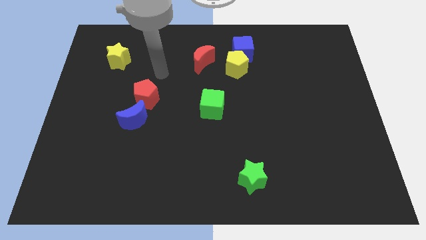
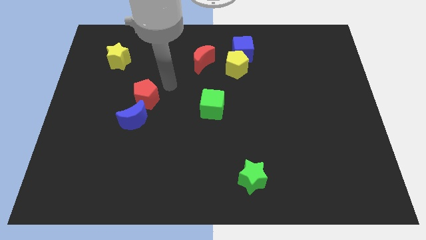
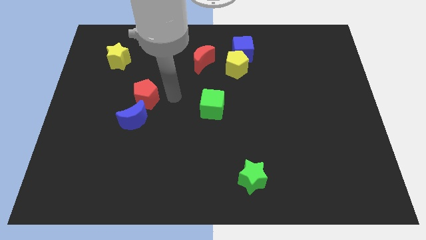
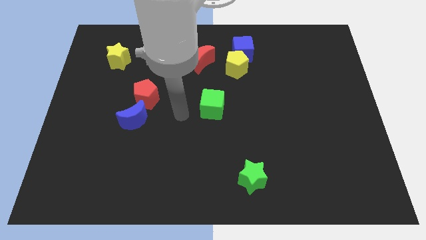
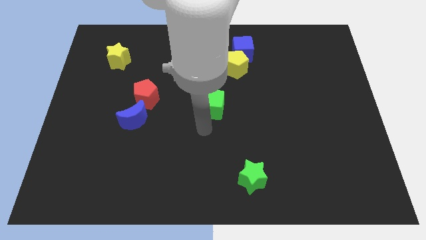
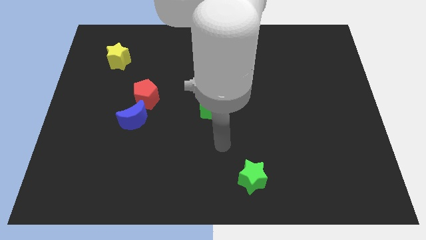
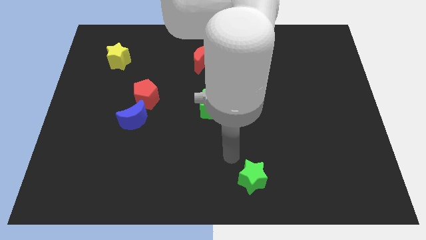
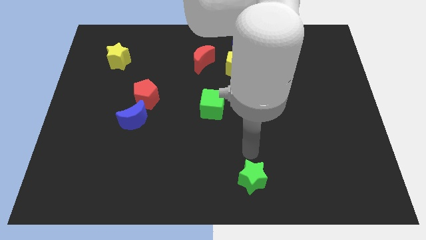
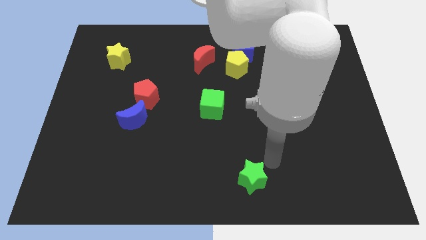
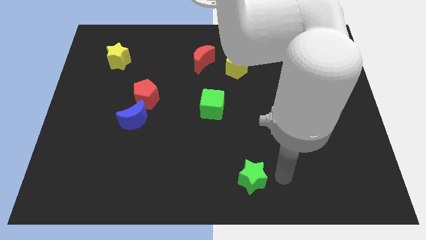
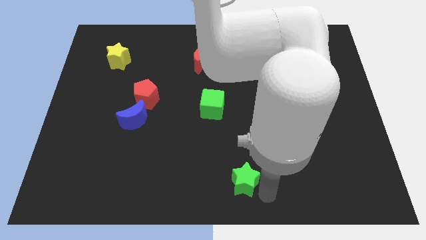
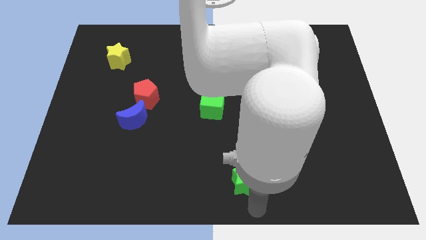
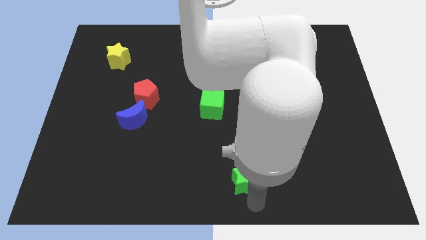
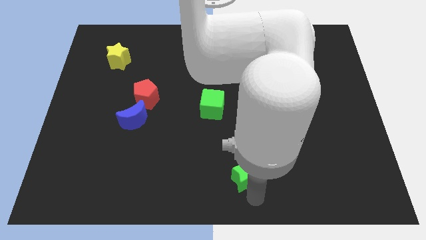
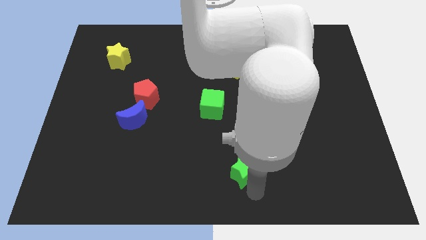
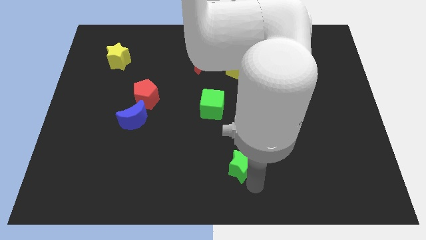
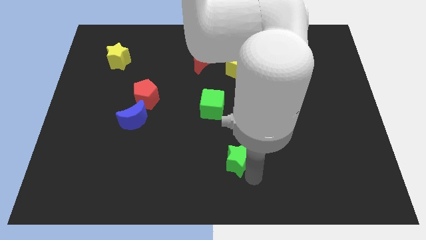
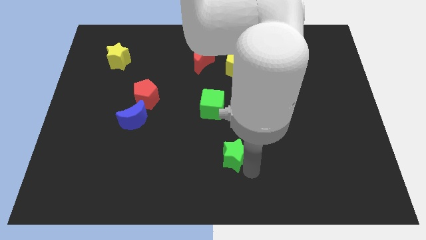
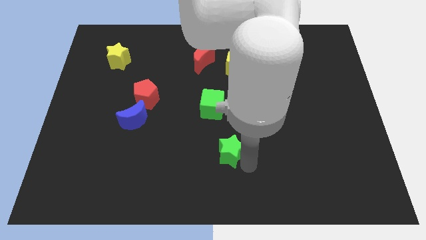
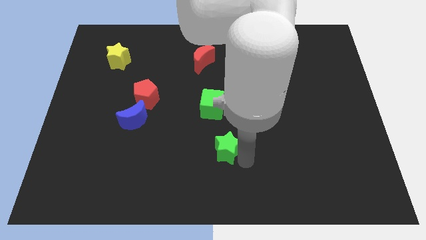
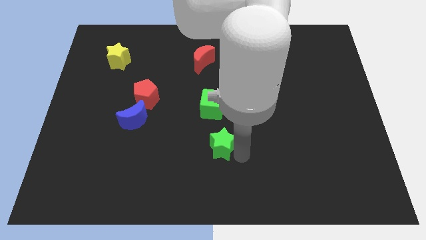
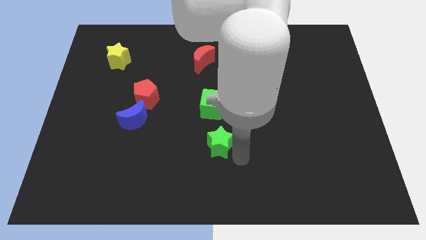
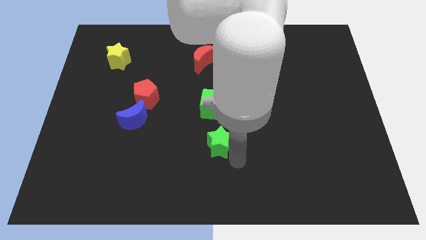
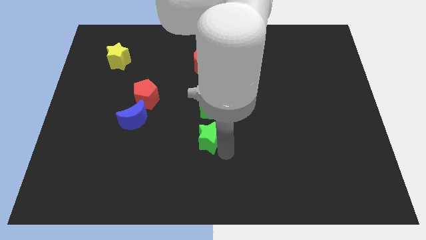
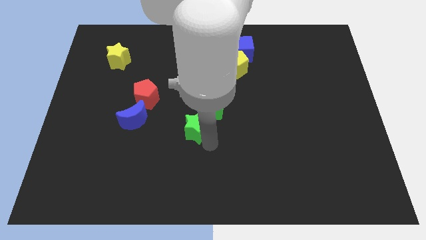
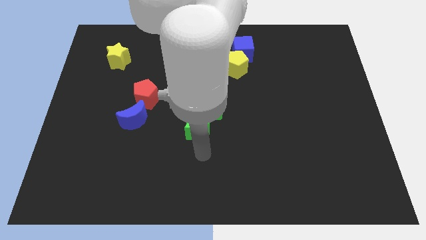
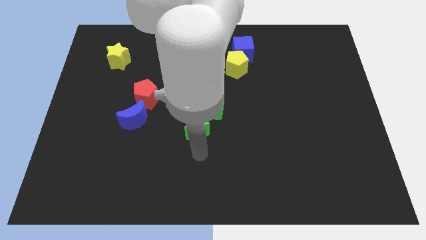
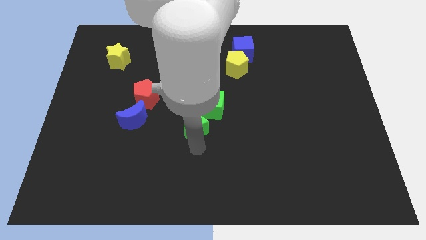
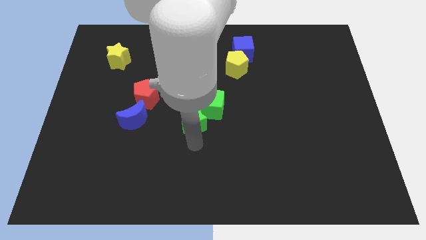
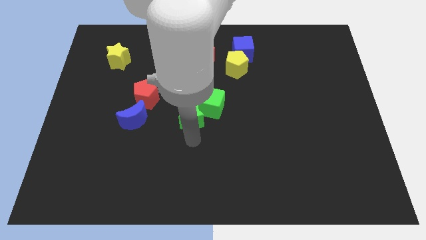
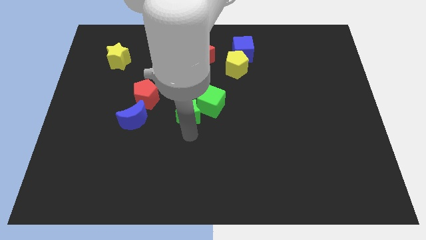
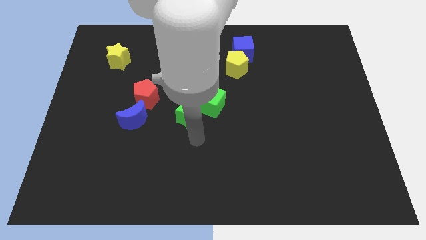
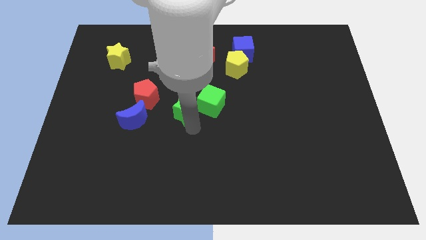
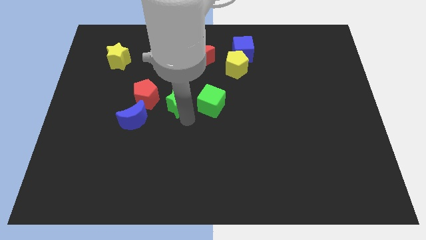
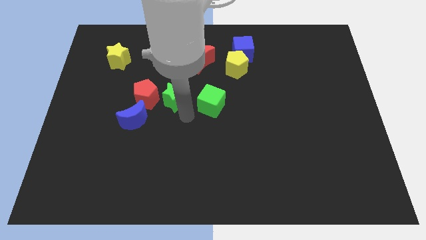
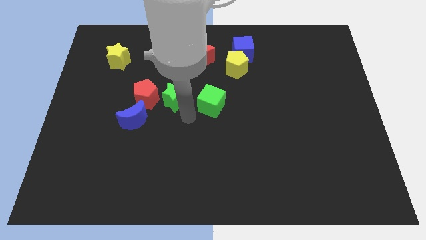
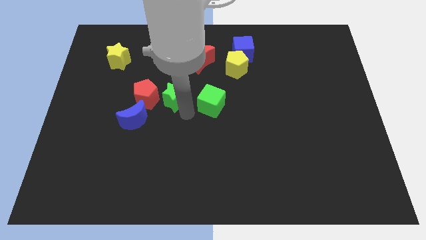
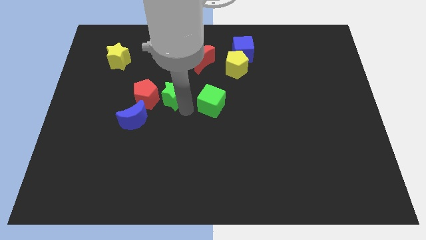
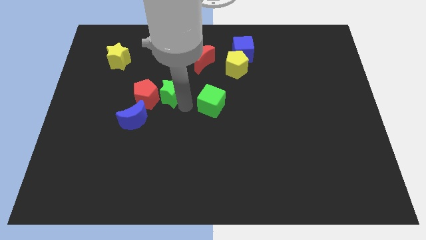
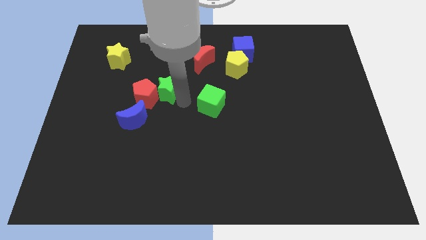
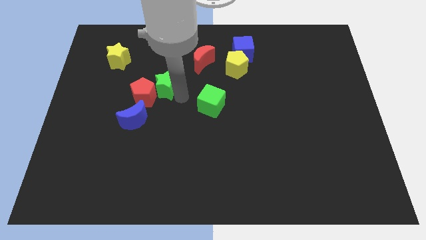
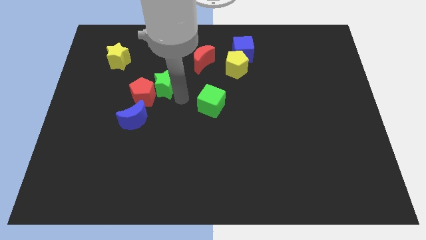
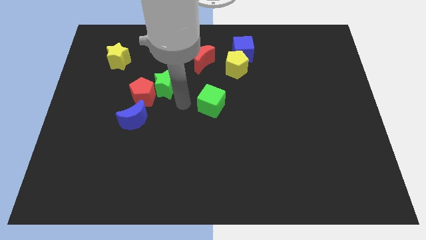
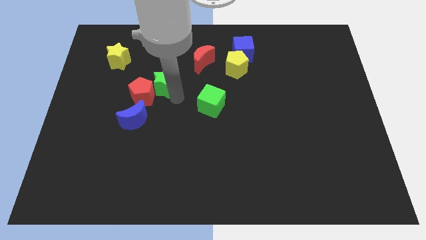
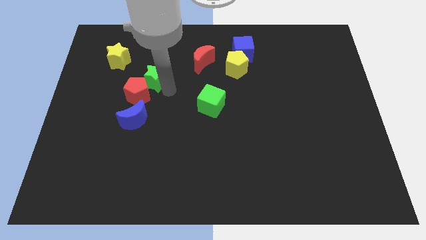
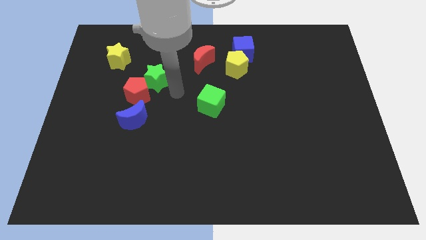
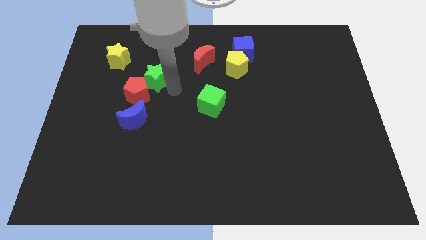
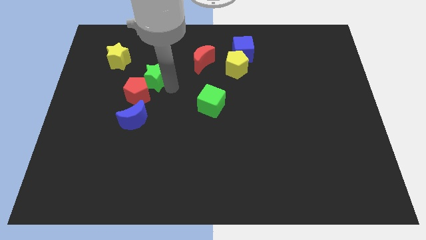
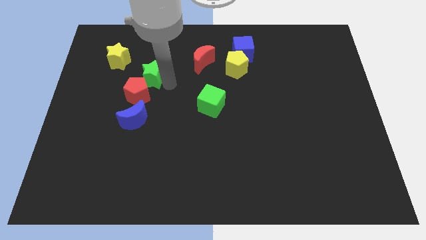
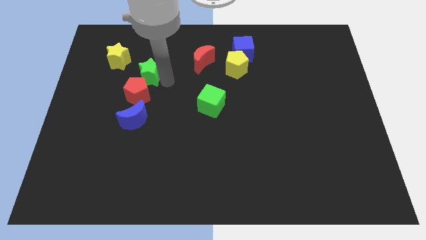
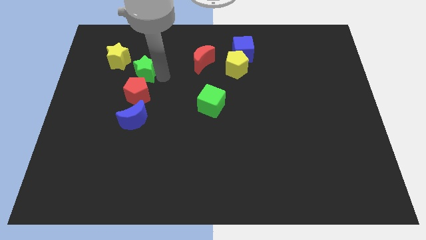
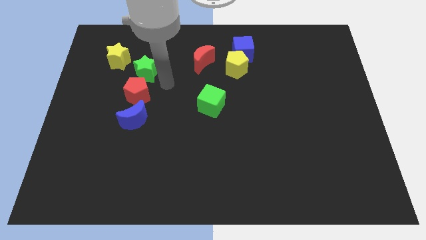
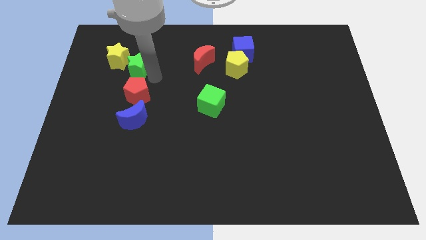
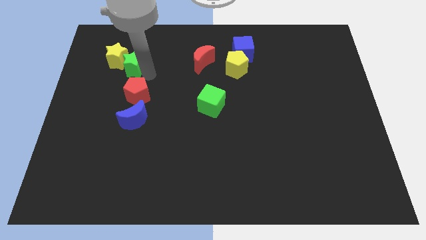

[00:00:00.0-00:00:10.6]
move the green star next to the yellow star

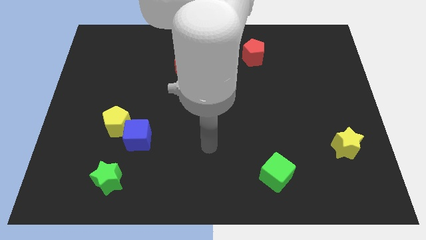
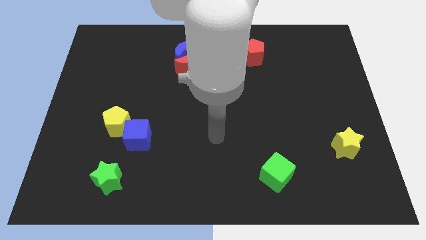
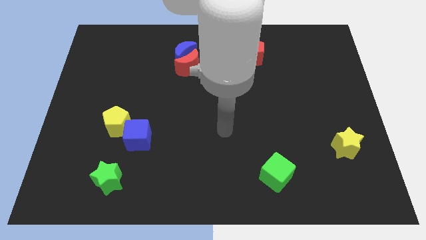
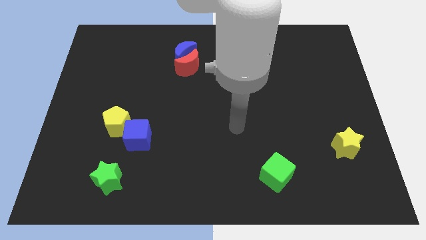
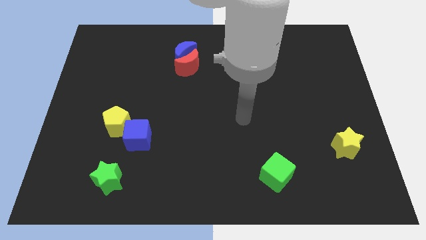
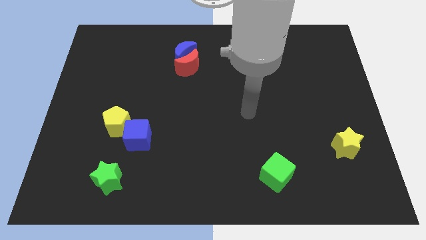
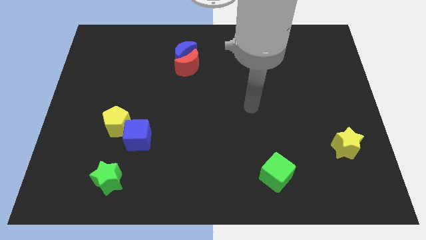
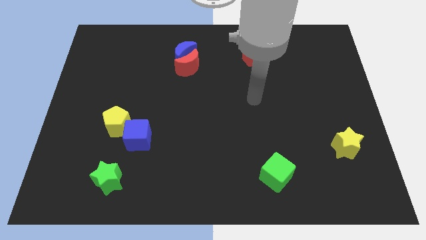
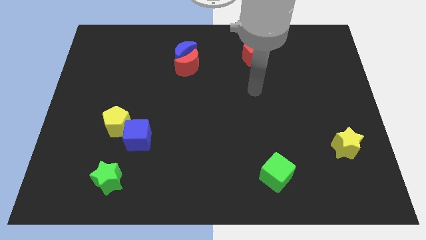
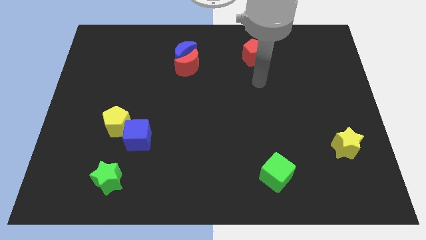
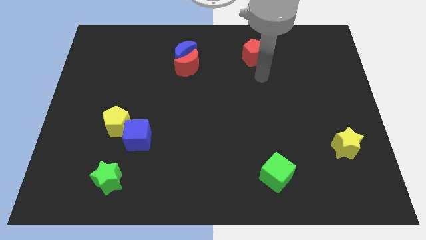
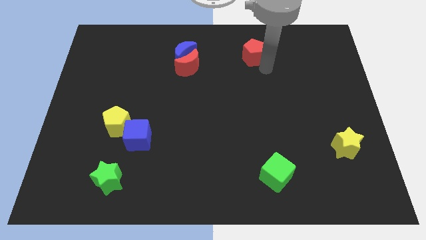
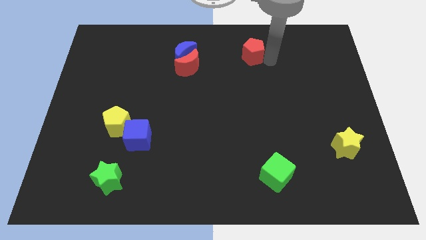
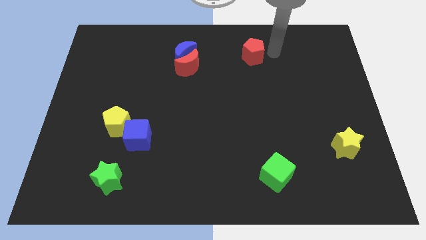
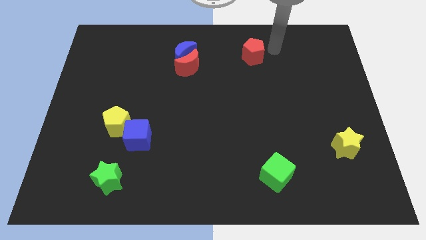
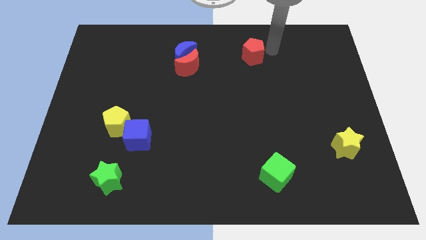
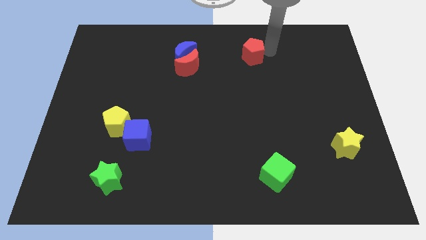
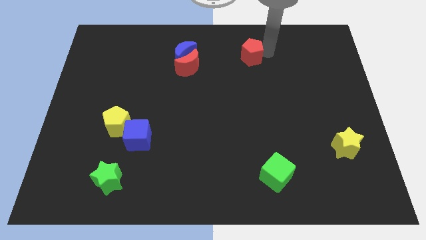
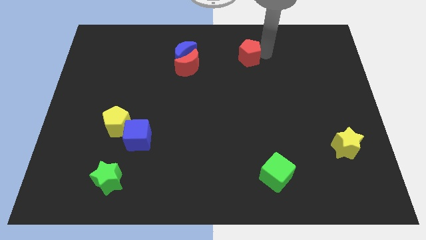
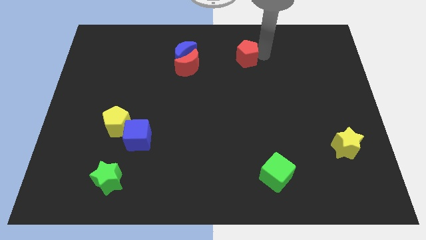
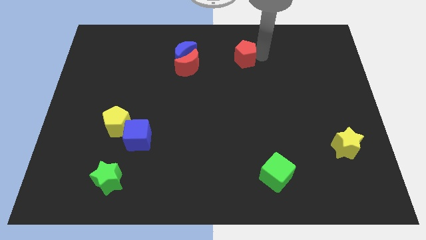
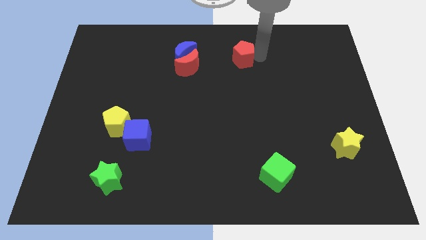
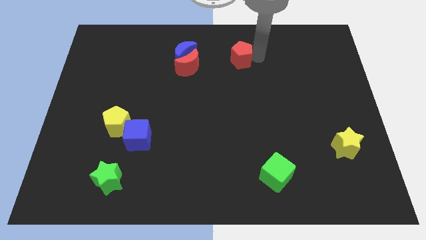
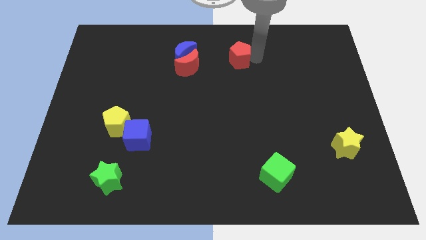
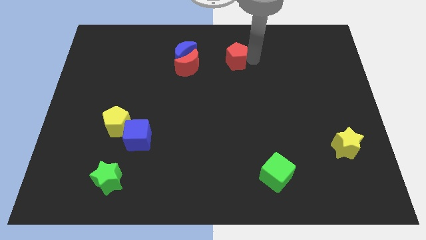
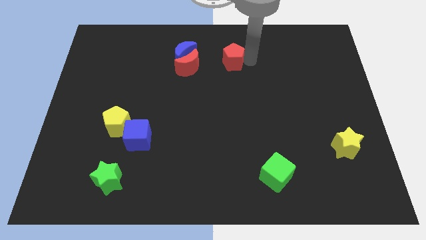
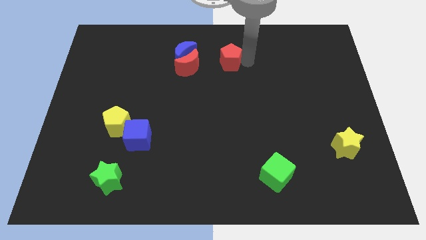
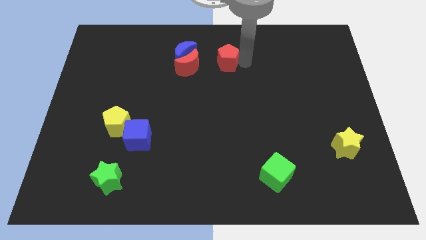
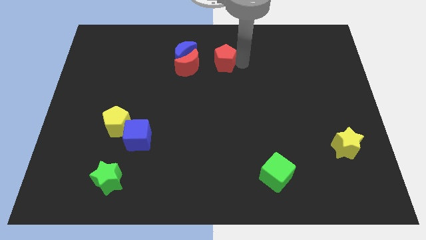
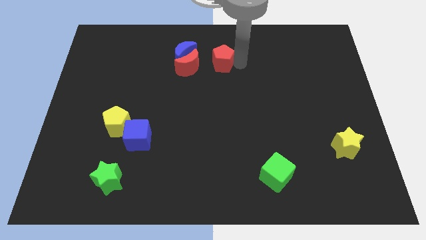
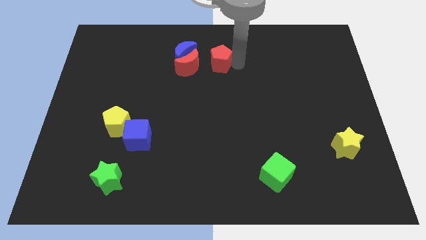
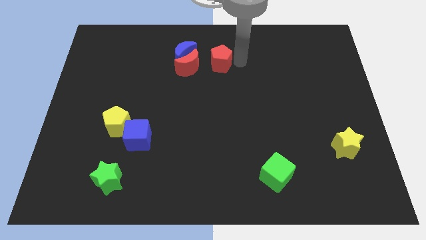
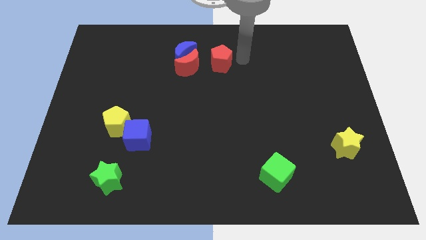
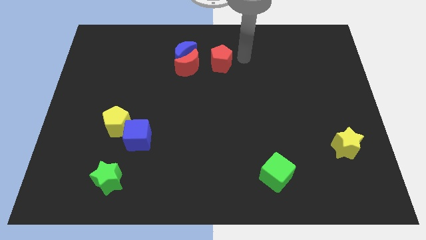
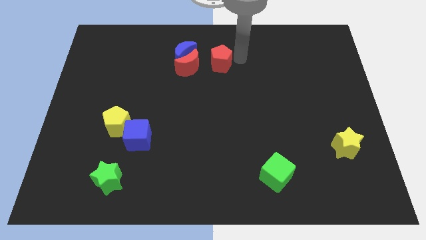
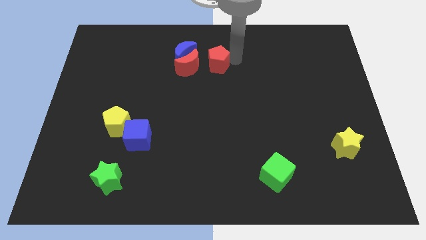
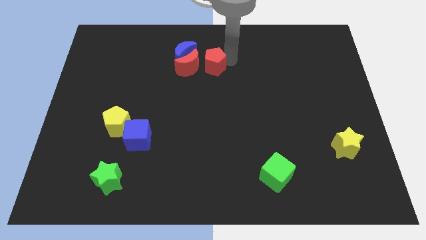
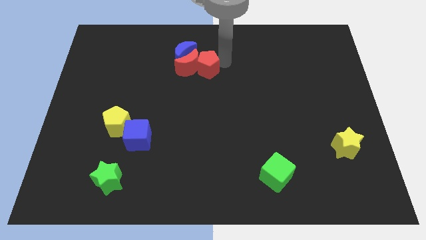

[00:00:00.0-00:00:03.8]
slide the red pentagon next to the red moon
